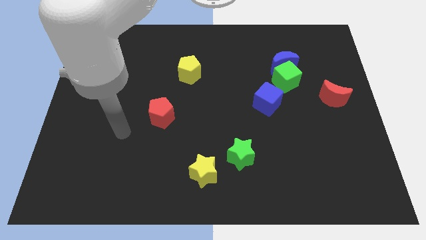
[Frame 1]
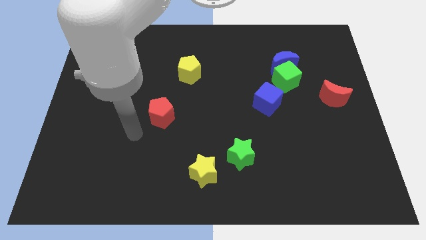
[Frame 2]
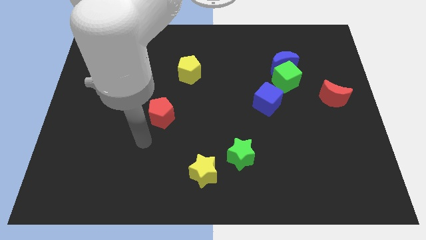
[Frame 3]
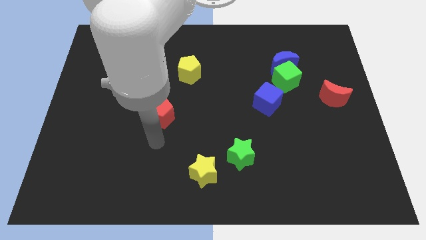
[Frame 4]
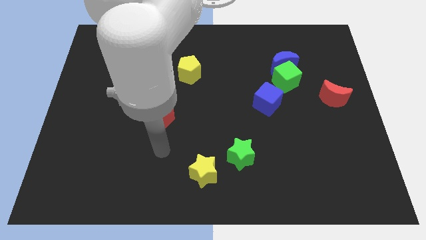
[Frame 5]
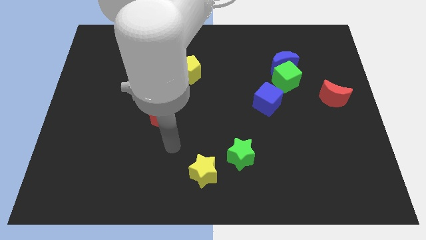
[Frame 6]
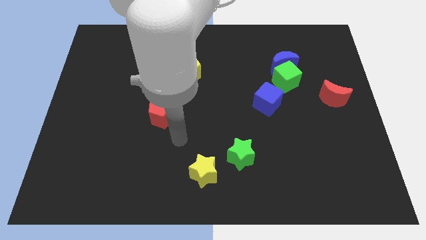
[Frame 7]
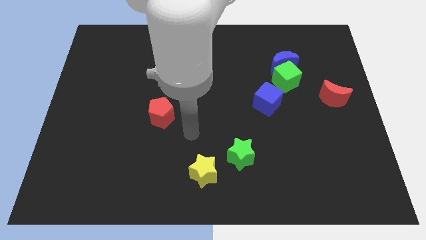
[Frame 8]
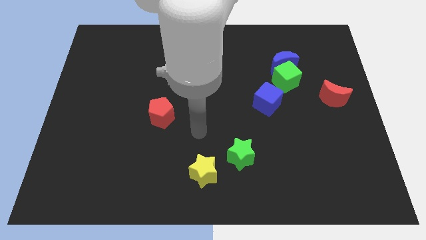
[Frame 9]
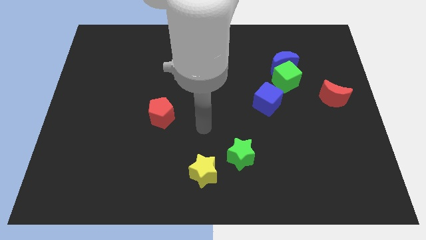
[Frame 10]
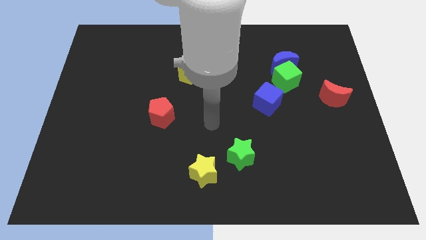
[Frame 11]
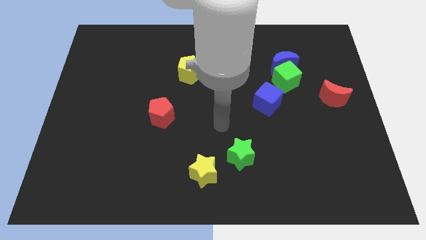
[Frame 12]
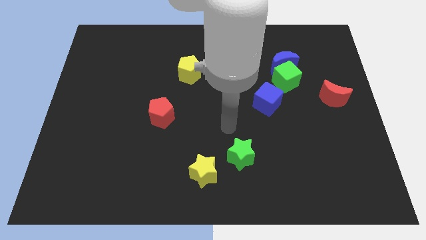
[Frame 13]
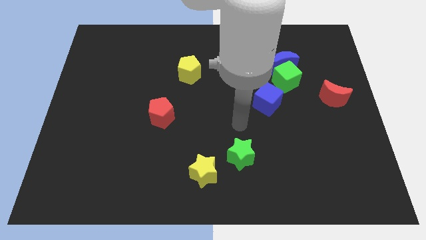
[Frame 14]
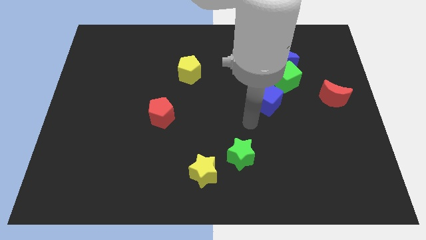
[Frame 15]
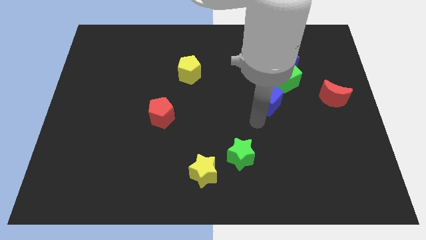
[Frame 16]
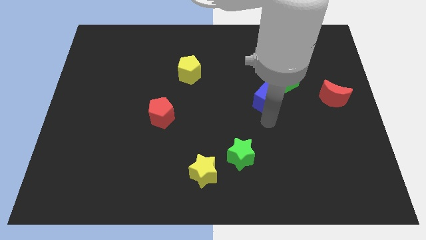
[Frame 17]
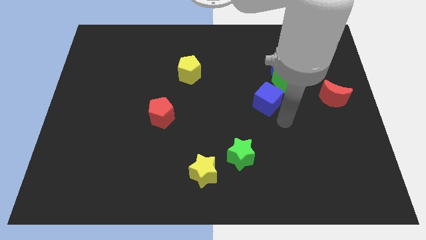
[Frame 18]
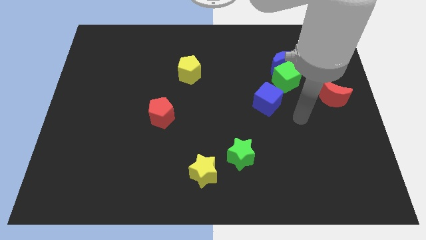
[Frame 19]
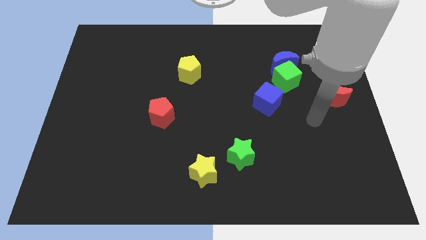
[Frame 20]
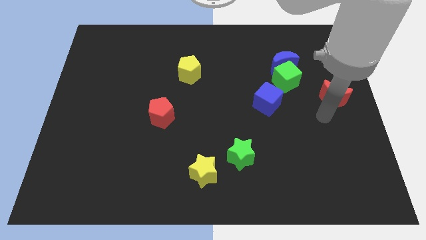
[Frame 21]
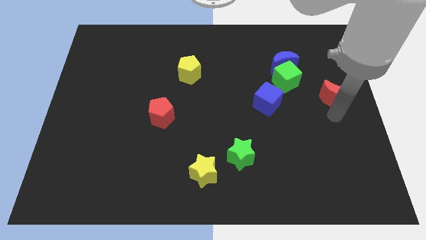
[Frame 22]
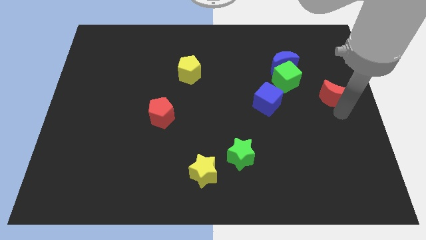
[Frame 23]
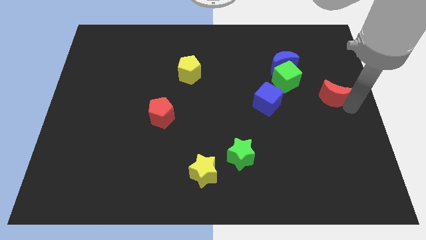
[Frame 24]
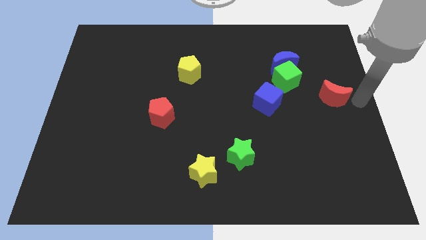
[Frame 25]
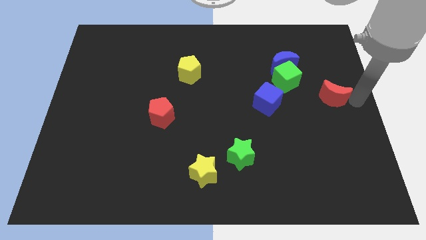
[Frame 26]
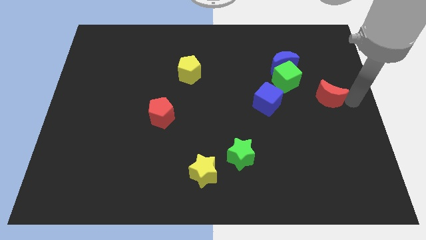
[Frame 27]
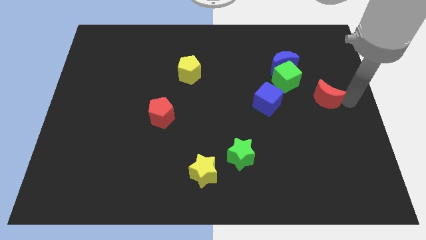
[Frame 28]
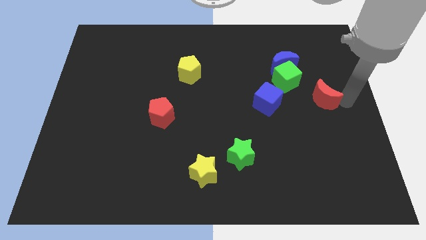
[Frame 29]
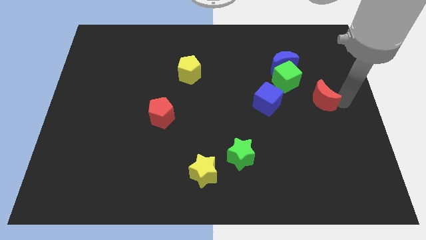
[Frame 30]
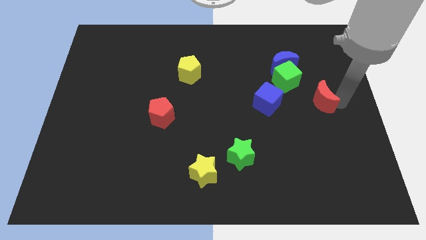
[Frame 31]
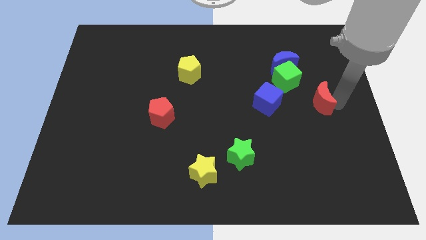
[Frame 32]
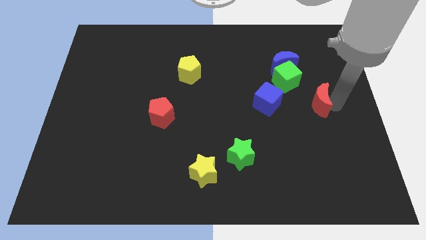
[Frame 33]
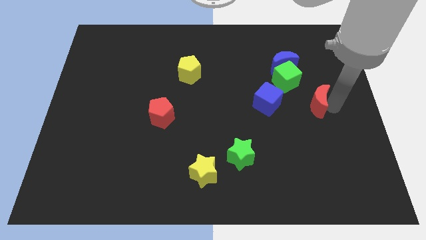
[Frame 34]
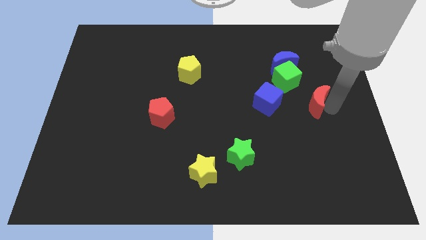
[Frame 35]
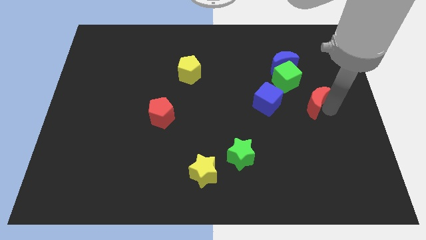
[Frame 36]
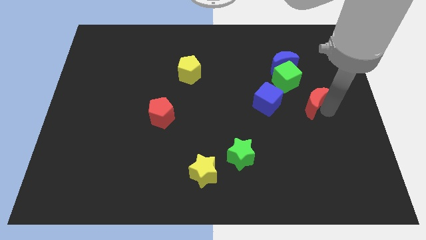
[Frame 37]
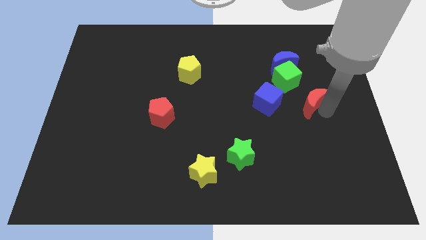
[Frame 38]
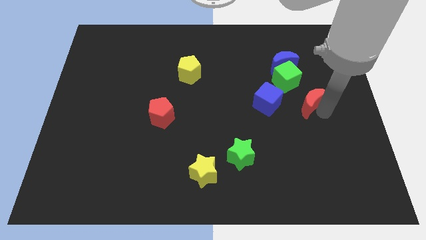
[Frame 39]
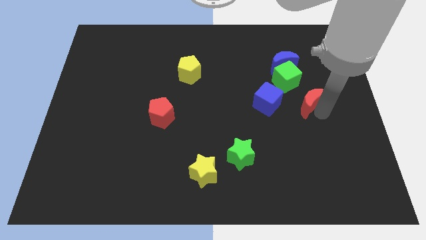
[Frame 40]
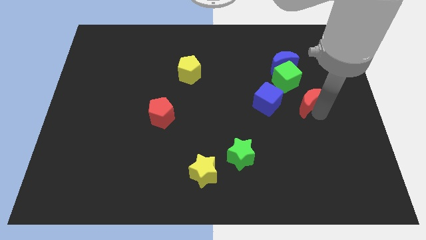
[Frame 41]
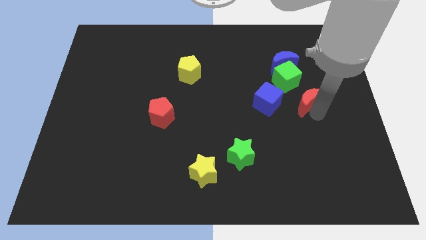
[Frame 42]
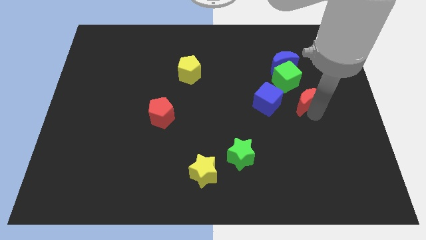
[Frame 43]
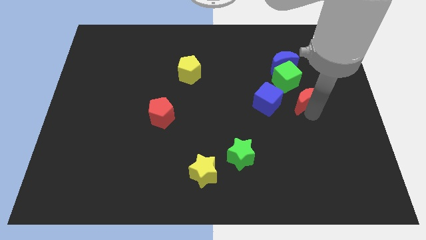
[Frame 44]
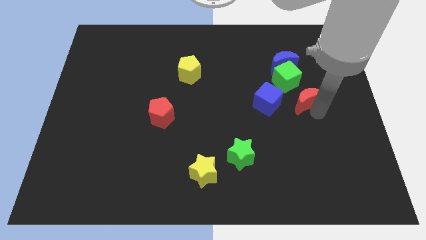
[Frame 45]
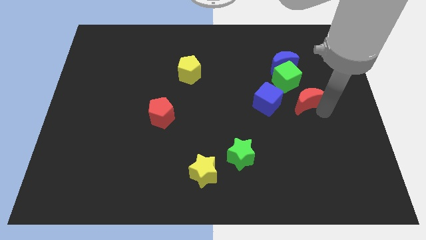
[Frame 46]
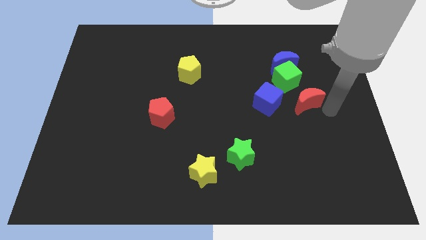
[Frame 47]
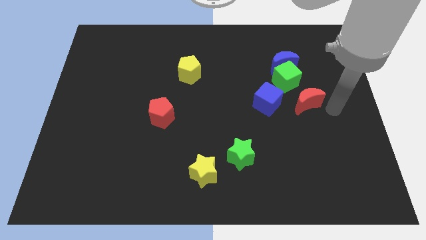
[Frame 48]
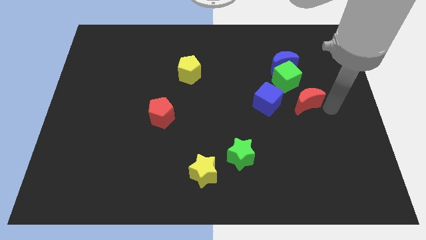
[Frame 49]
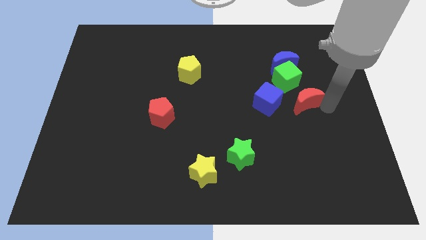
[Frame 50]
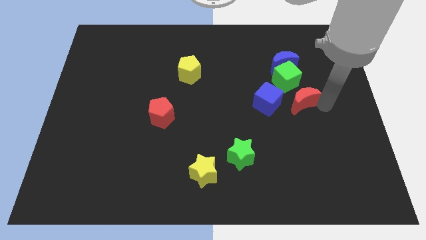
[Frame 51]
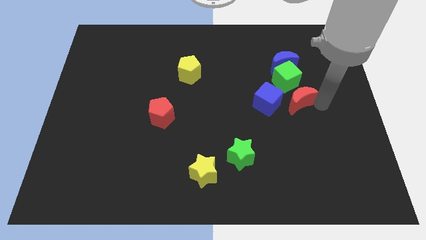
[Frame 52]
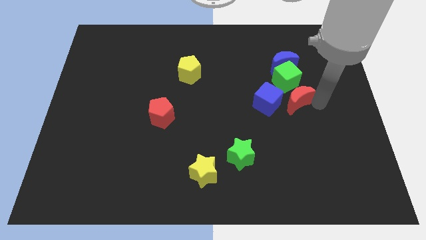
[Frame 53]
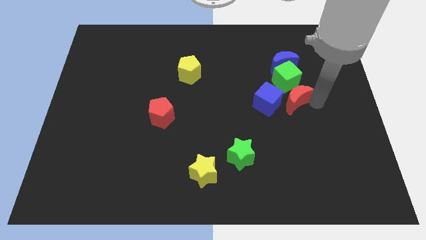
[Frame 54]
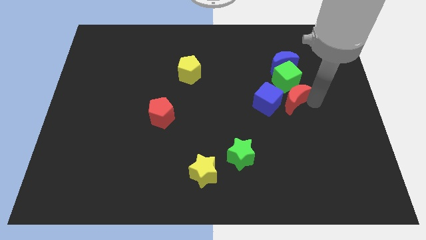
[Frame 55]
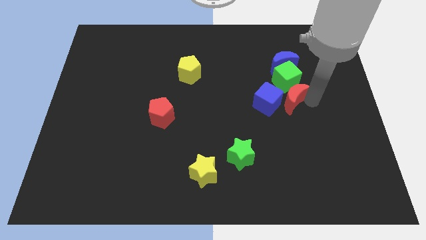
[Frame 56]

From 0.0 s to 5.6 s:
move the red moon to the blue cube

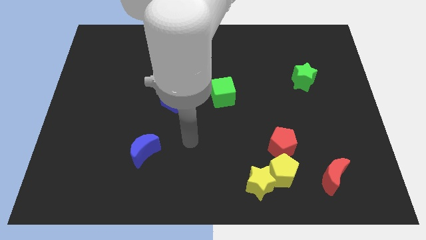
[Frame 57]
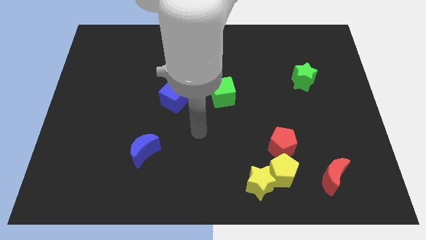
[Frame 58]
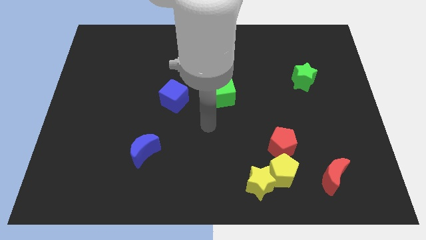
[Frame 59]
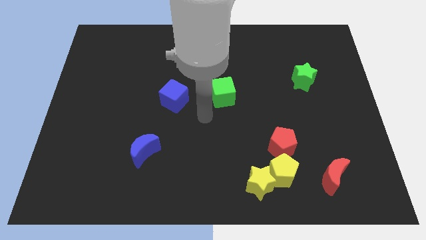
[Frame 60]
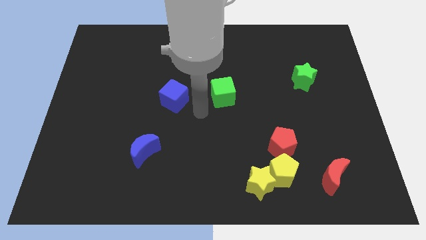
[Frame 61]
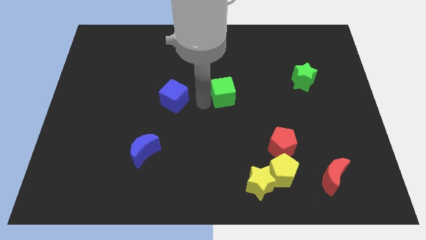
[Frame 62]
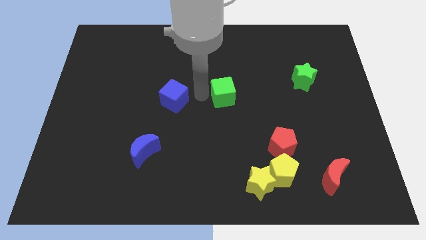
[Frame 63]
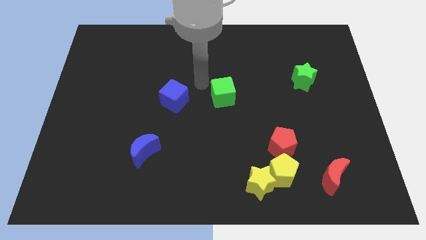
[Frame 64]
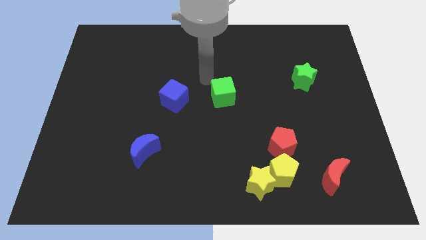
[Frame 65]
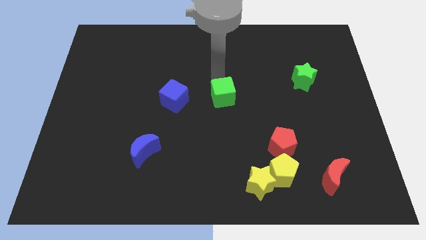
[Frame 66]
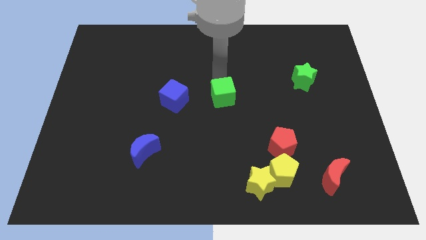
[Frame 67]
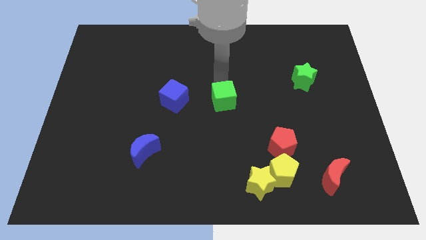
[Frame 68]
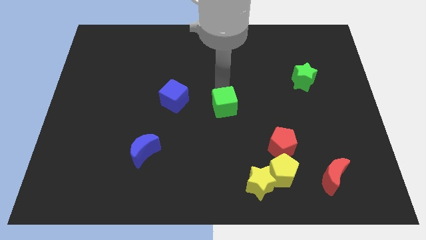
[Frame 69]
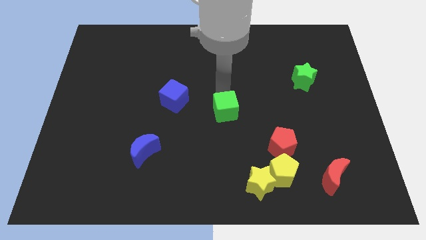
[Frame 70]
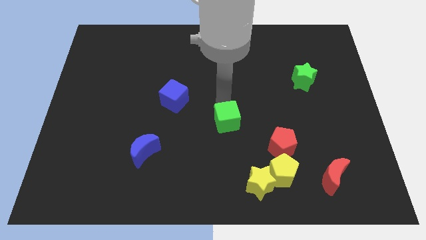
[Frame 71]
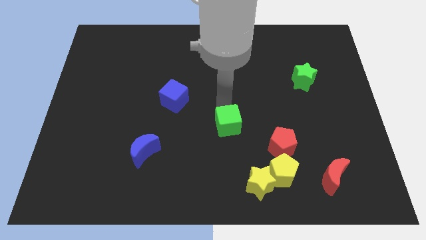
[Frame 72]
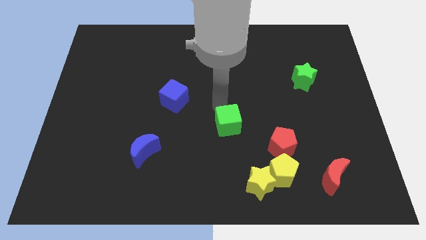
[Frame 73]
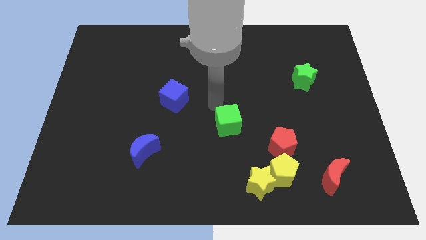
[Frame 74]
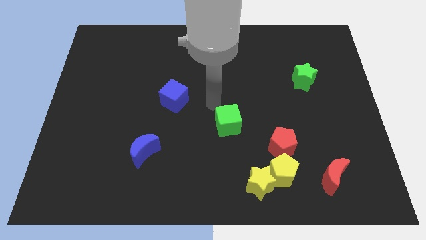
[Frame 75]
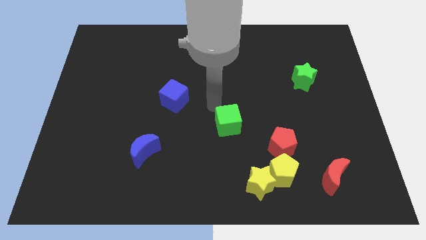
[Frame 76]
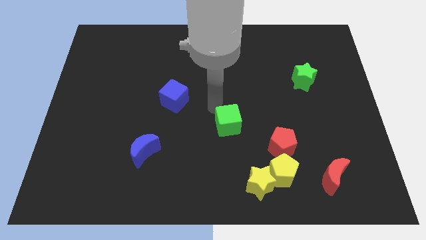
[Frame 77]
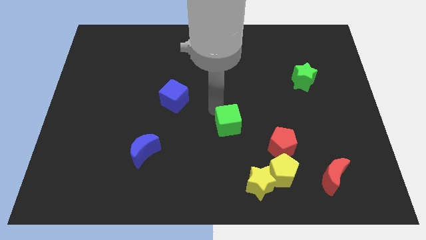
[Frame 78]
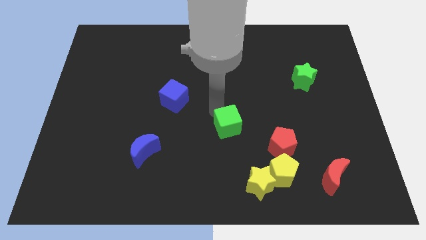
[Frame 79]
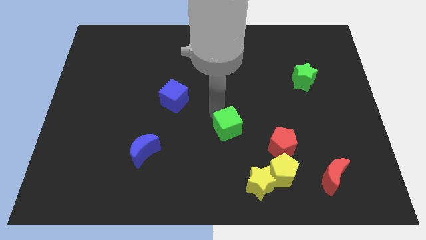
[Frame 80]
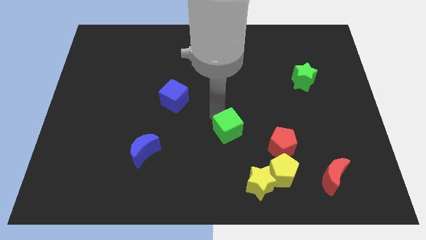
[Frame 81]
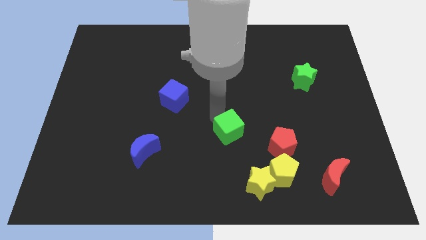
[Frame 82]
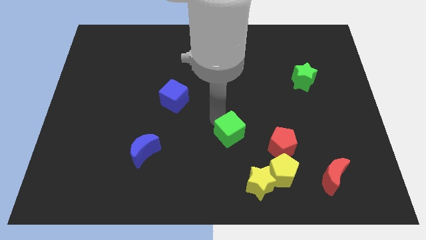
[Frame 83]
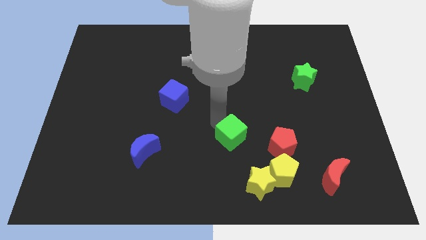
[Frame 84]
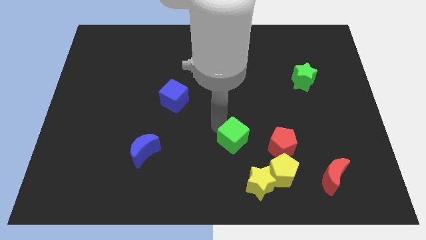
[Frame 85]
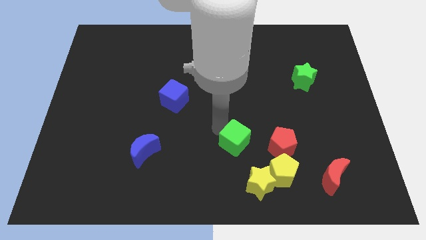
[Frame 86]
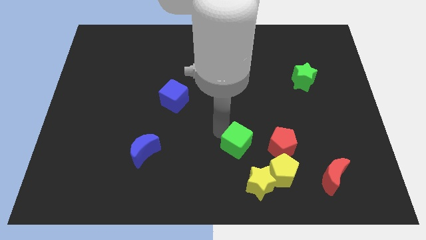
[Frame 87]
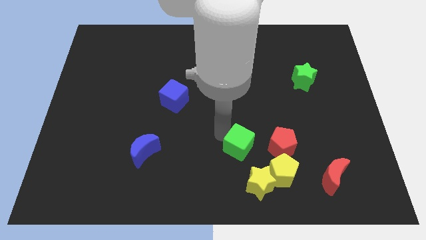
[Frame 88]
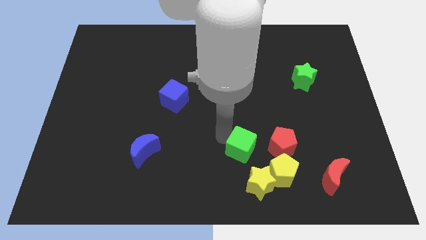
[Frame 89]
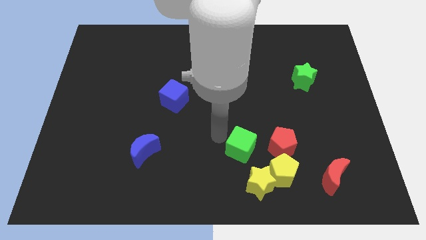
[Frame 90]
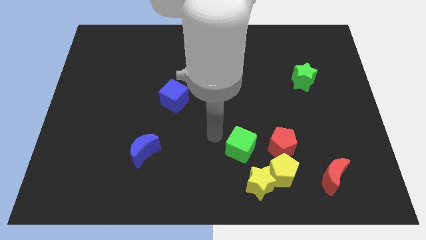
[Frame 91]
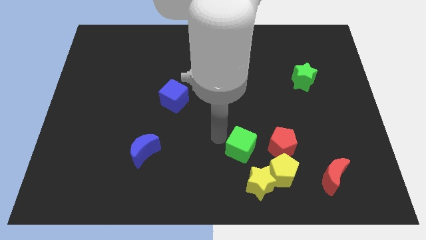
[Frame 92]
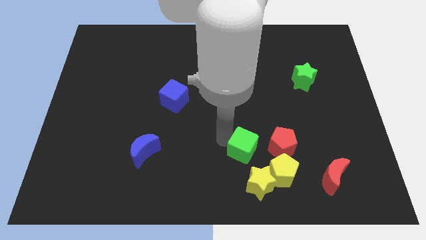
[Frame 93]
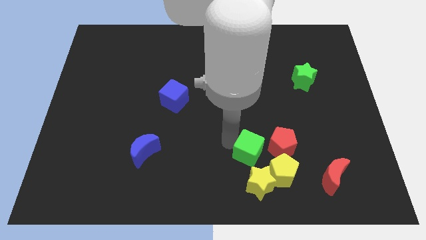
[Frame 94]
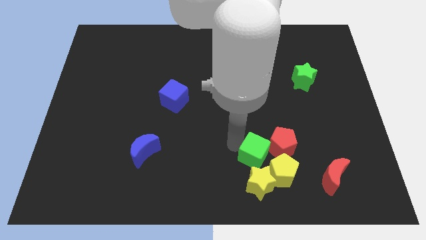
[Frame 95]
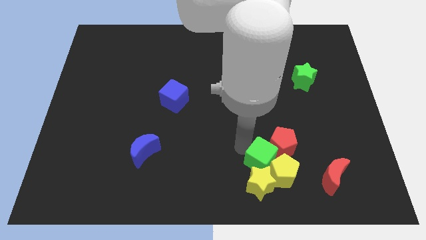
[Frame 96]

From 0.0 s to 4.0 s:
slide the green cube close to the yellow pentagon
